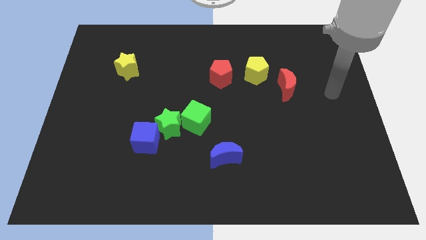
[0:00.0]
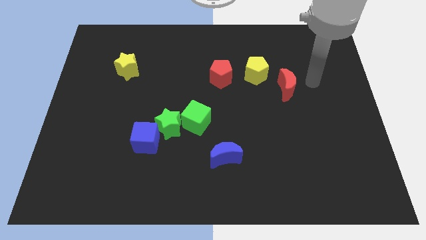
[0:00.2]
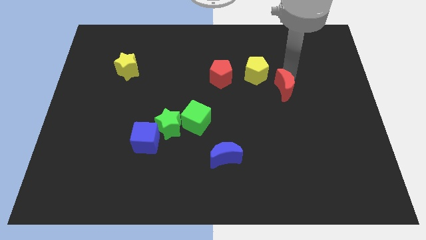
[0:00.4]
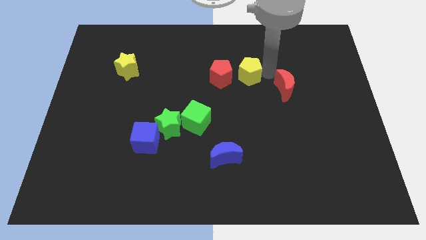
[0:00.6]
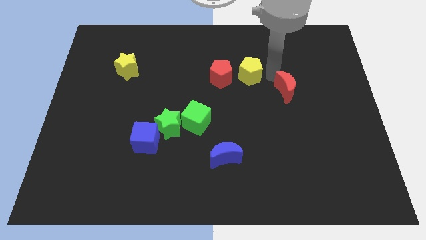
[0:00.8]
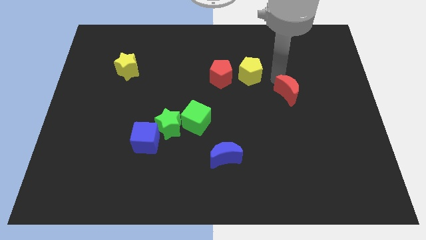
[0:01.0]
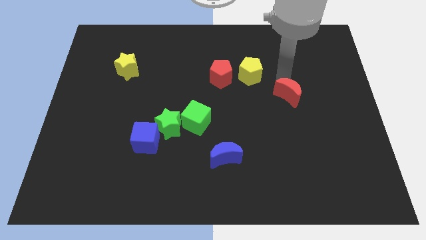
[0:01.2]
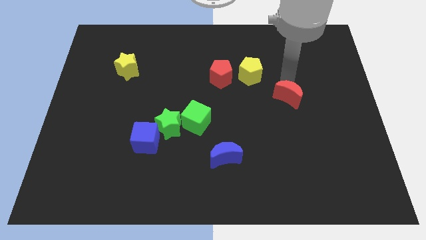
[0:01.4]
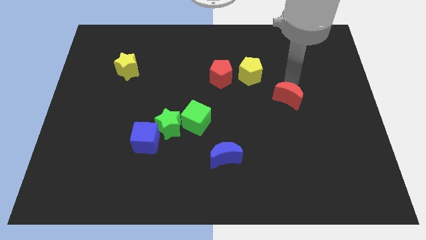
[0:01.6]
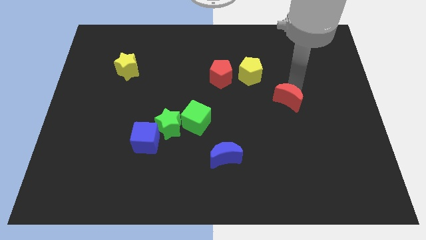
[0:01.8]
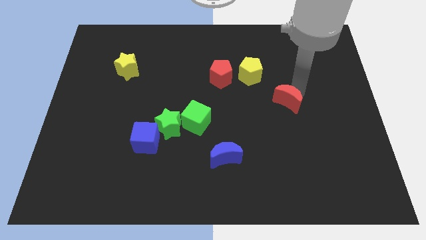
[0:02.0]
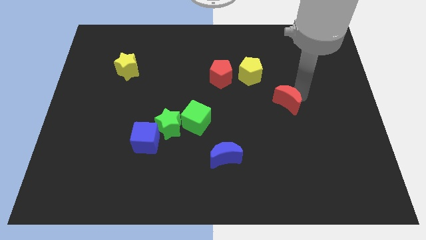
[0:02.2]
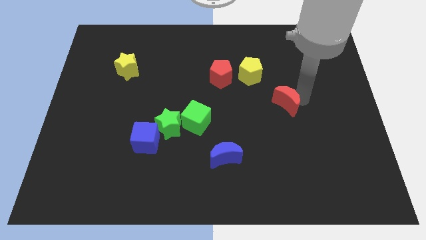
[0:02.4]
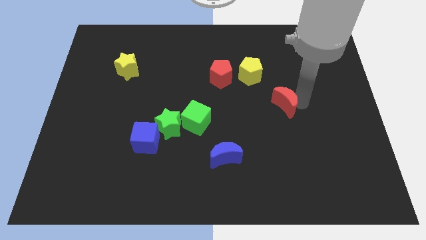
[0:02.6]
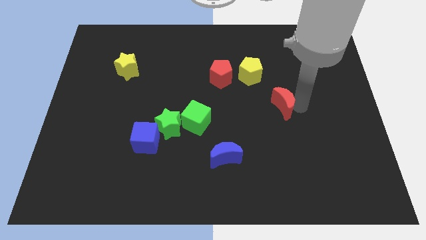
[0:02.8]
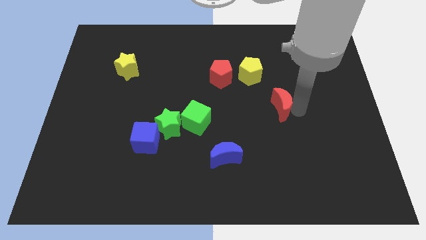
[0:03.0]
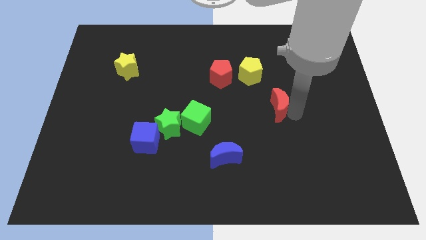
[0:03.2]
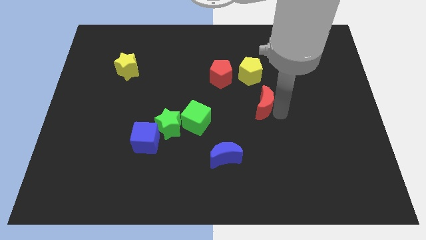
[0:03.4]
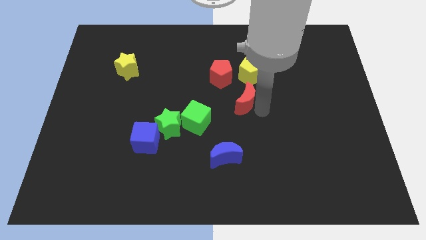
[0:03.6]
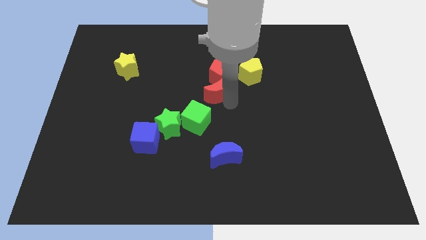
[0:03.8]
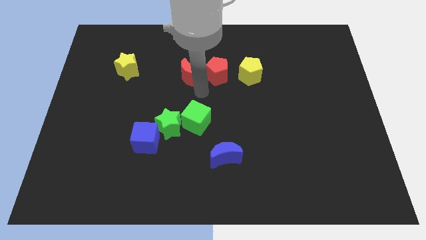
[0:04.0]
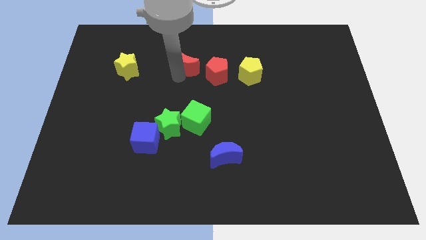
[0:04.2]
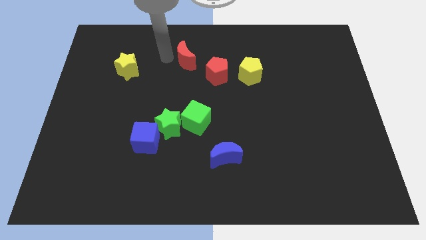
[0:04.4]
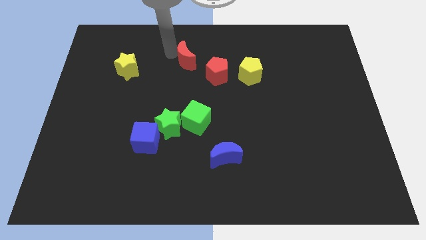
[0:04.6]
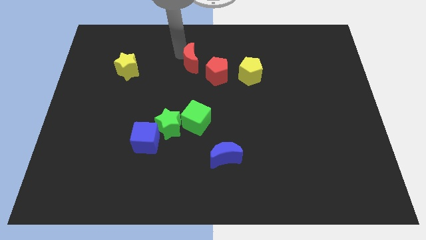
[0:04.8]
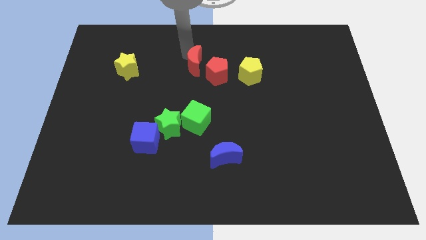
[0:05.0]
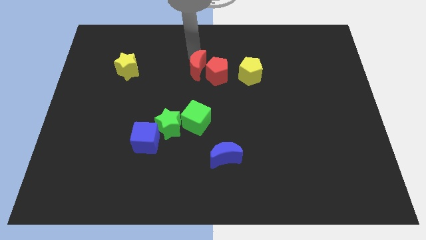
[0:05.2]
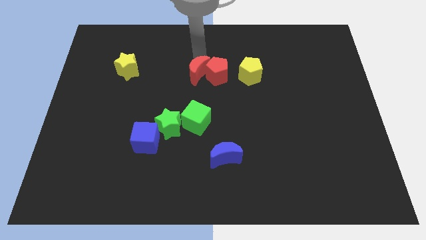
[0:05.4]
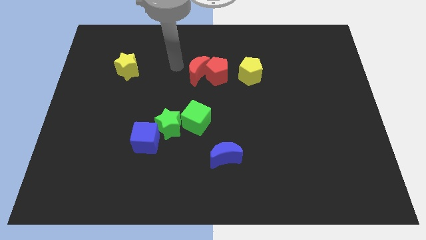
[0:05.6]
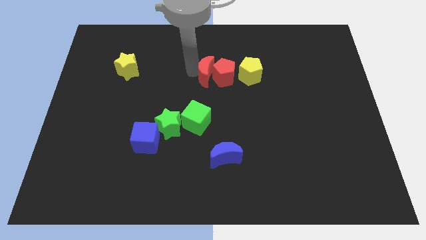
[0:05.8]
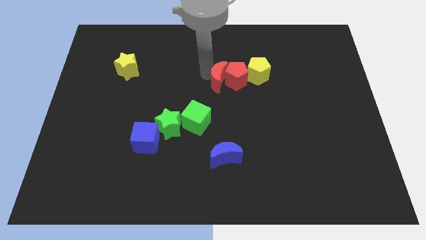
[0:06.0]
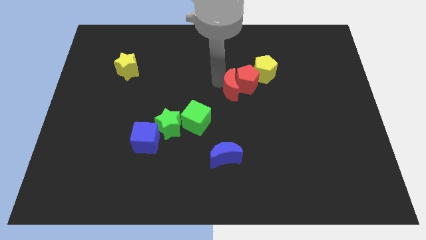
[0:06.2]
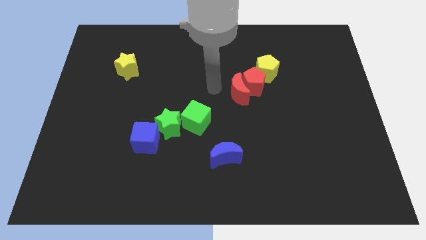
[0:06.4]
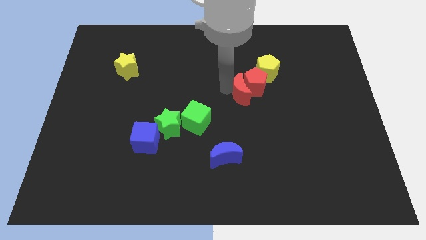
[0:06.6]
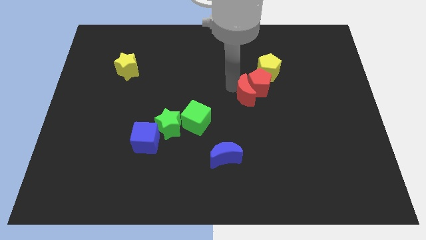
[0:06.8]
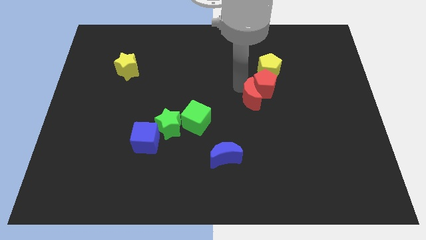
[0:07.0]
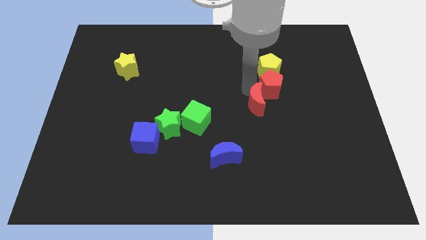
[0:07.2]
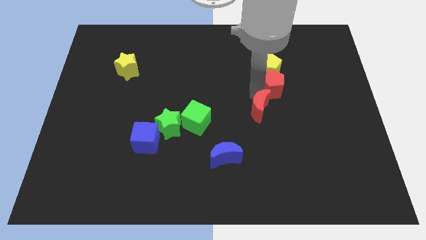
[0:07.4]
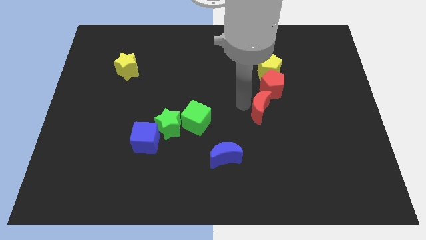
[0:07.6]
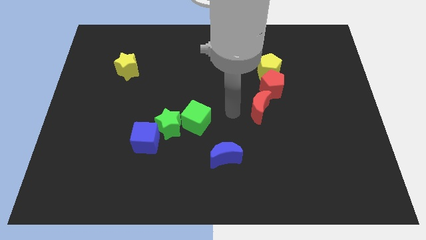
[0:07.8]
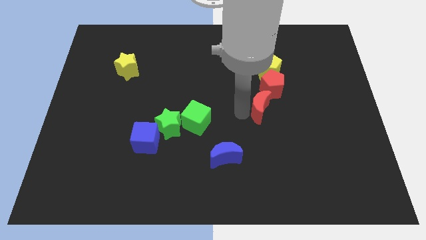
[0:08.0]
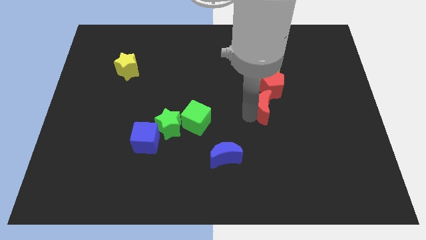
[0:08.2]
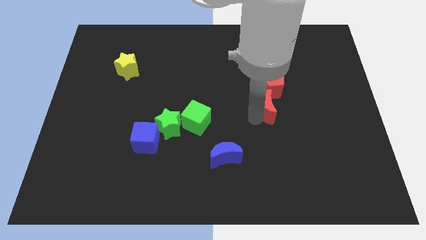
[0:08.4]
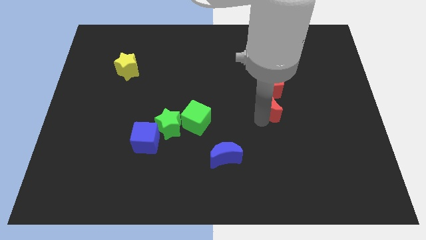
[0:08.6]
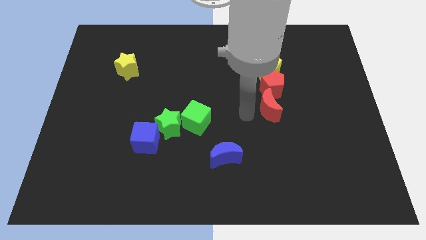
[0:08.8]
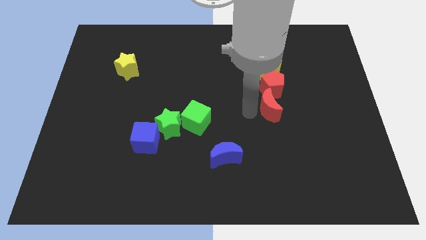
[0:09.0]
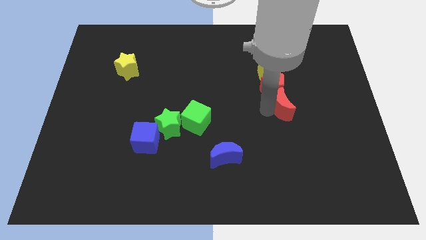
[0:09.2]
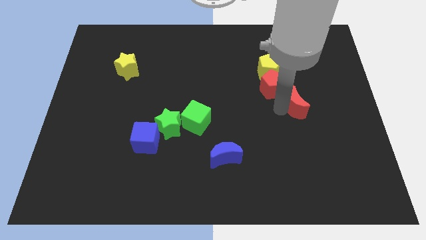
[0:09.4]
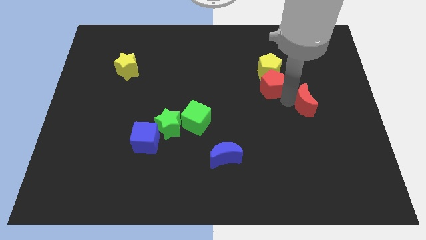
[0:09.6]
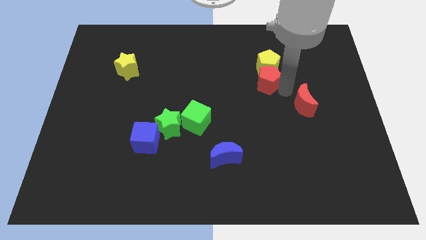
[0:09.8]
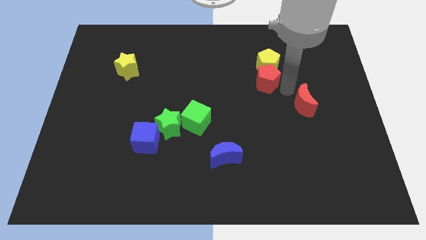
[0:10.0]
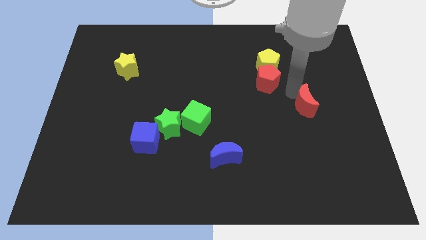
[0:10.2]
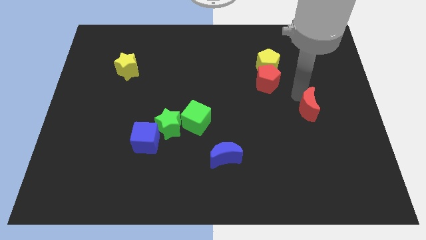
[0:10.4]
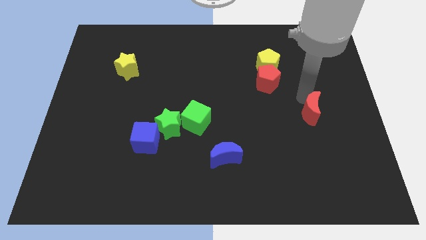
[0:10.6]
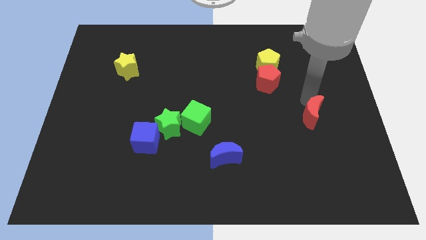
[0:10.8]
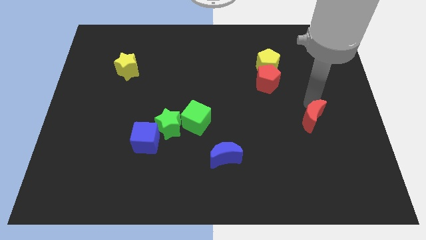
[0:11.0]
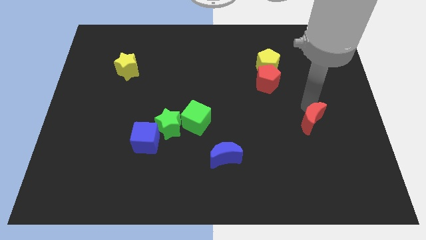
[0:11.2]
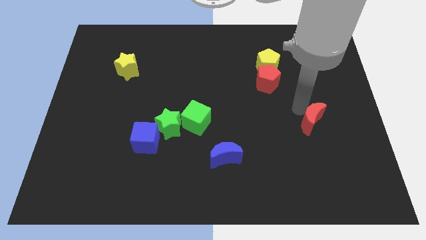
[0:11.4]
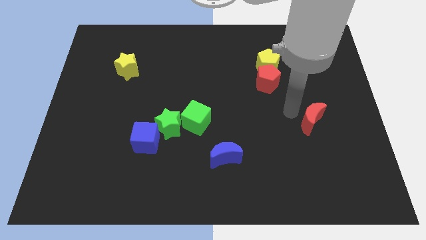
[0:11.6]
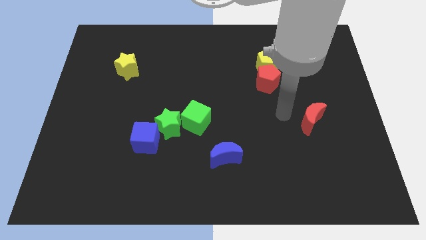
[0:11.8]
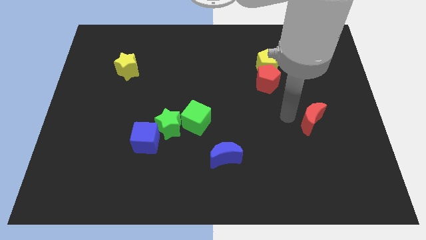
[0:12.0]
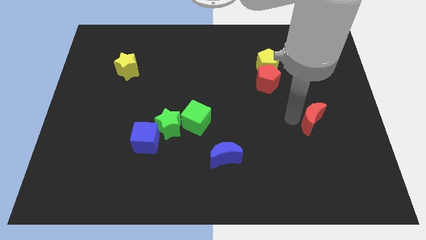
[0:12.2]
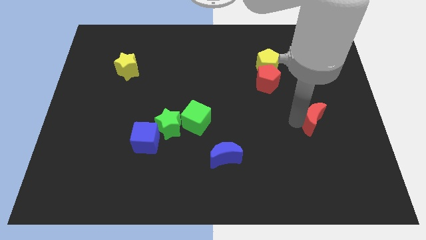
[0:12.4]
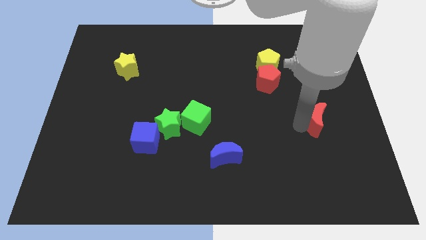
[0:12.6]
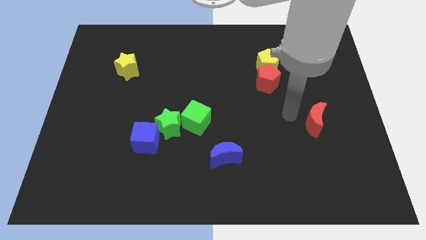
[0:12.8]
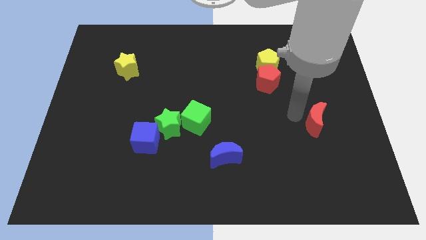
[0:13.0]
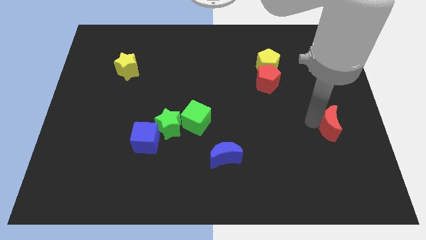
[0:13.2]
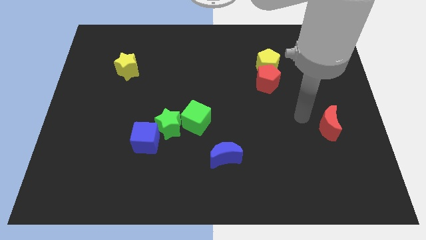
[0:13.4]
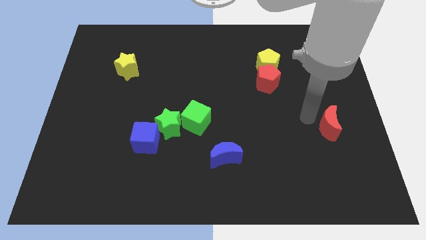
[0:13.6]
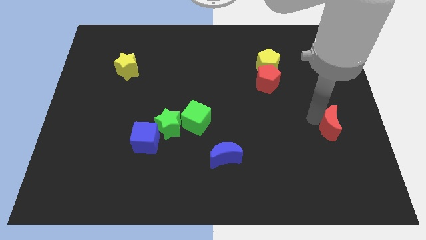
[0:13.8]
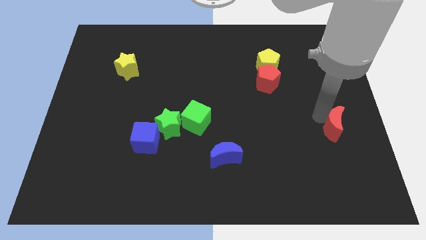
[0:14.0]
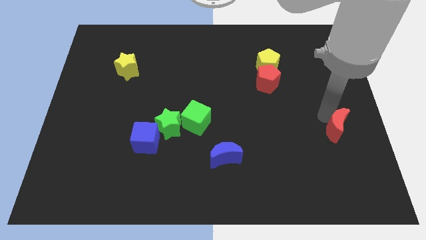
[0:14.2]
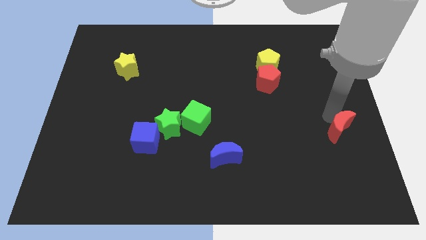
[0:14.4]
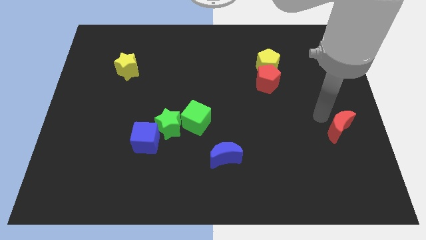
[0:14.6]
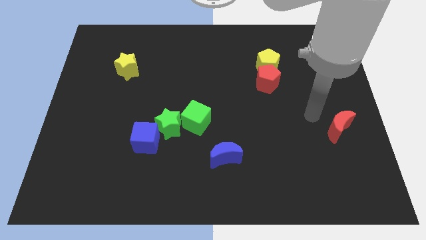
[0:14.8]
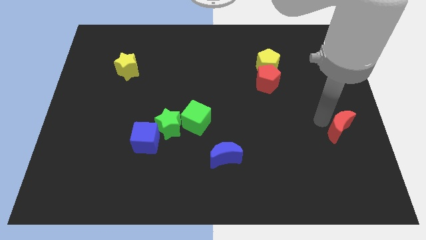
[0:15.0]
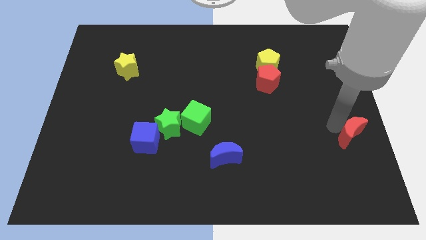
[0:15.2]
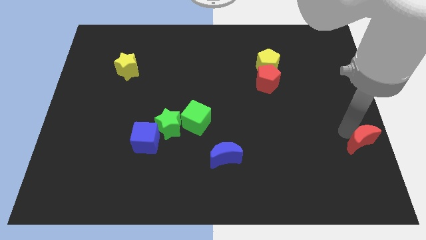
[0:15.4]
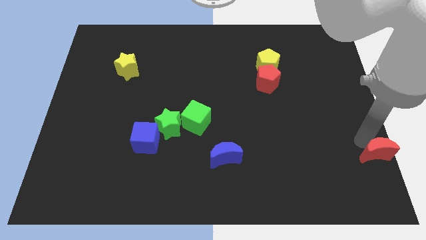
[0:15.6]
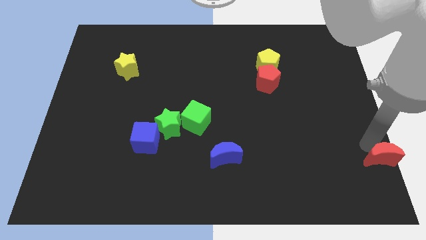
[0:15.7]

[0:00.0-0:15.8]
put the red moon to the bottom right of the board
